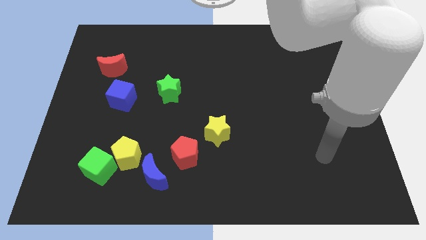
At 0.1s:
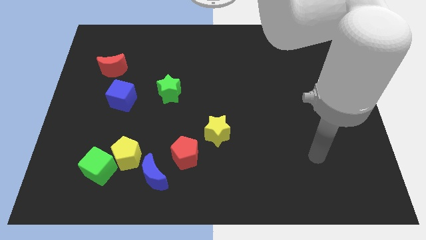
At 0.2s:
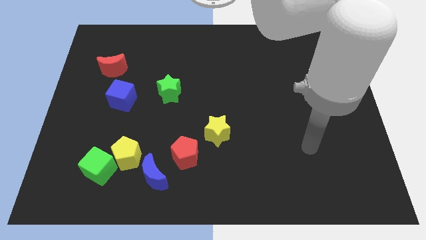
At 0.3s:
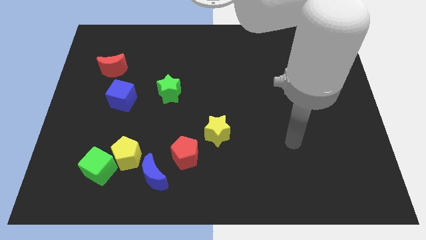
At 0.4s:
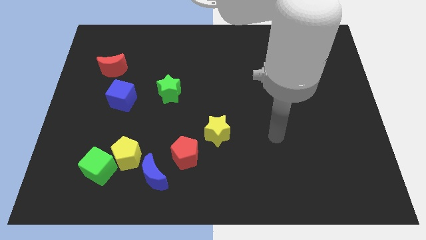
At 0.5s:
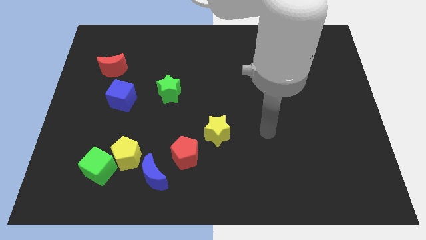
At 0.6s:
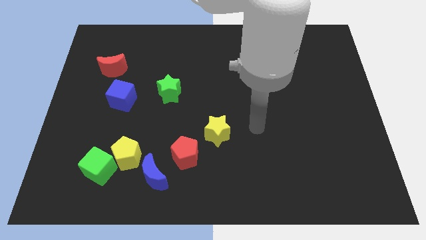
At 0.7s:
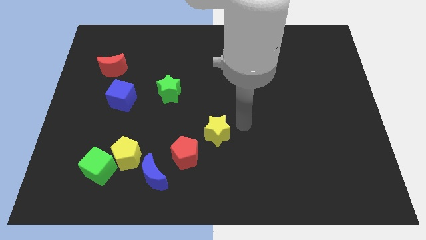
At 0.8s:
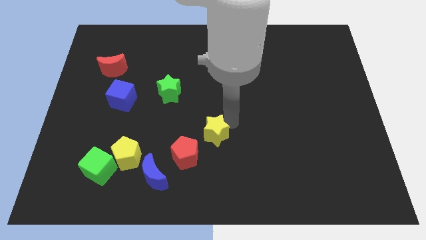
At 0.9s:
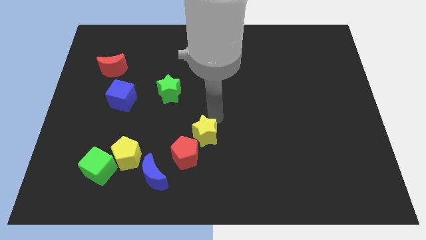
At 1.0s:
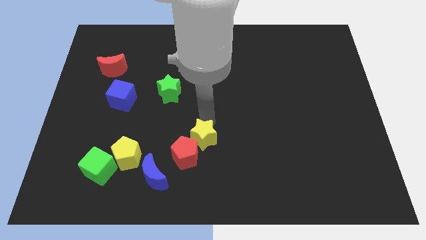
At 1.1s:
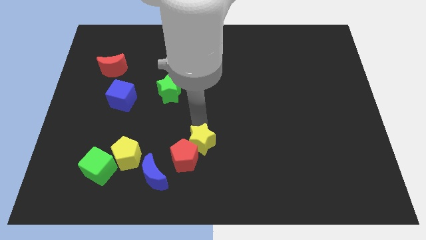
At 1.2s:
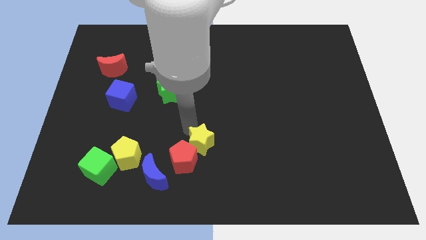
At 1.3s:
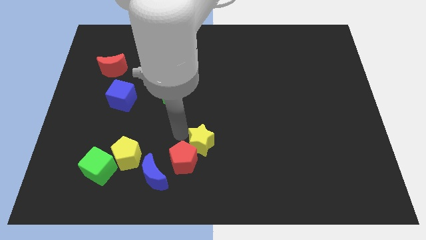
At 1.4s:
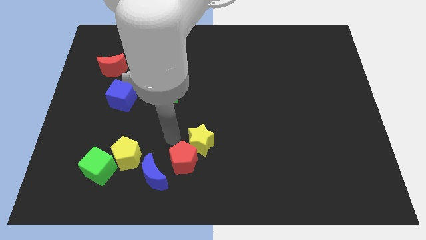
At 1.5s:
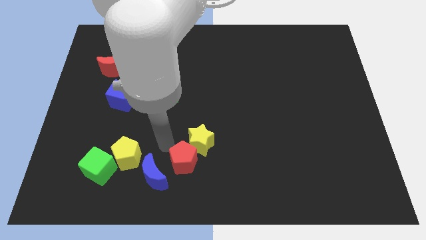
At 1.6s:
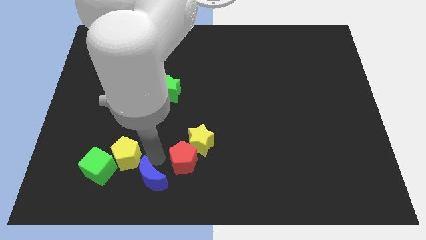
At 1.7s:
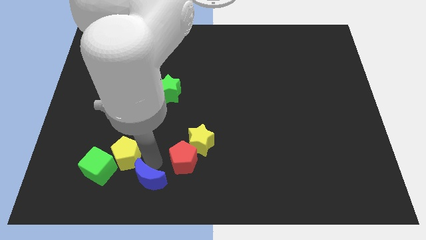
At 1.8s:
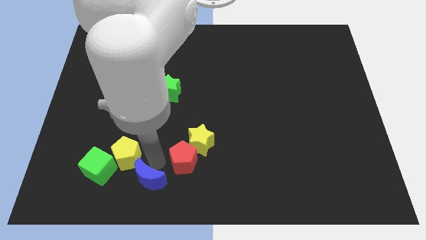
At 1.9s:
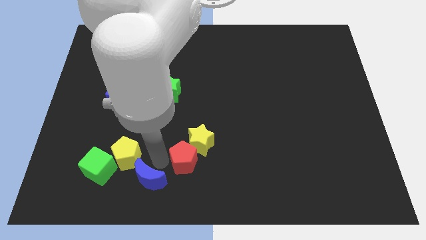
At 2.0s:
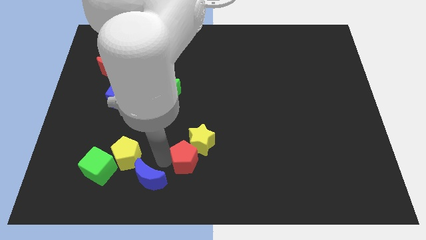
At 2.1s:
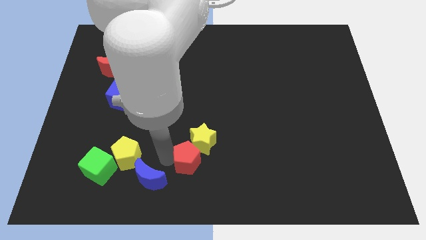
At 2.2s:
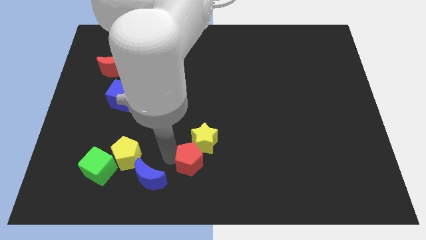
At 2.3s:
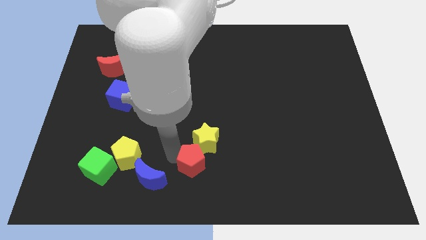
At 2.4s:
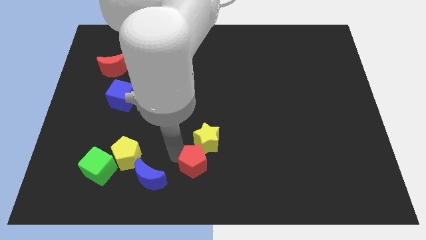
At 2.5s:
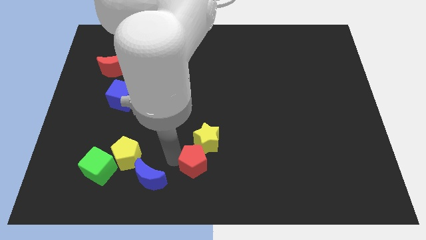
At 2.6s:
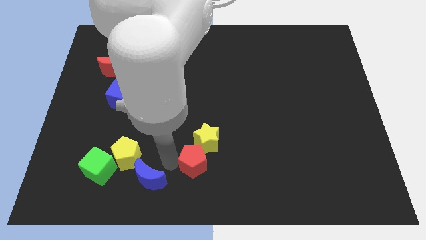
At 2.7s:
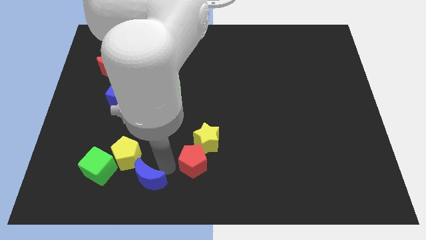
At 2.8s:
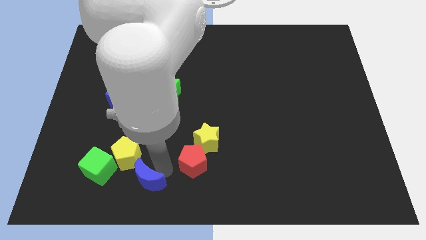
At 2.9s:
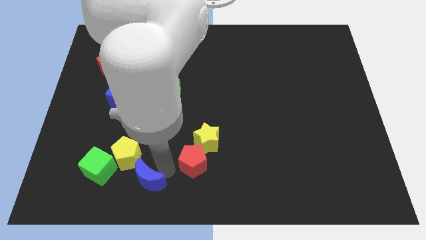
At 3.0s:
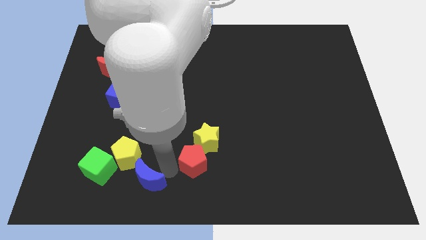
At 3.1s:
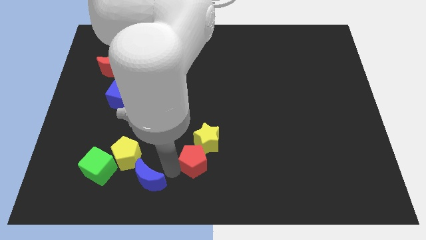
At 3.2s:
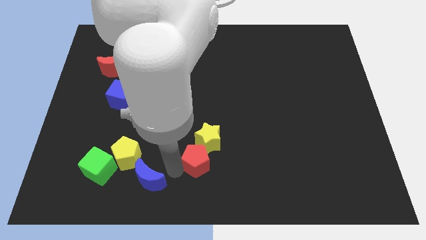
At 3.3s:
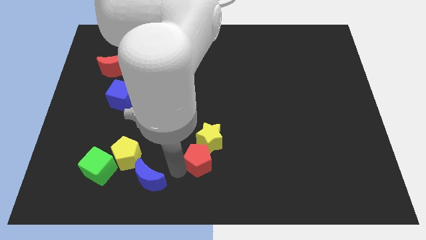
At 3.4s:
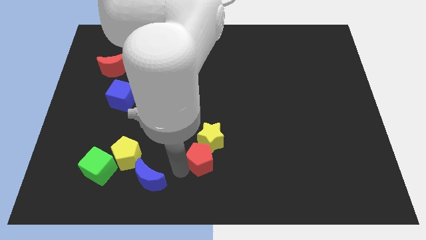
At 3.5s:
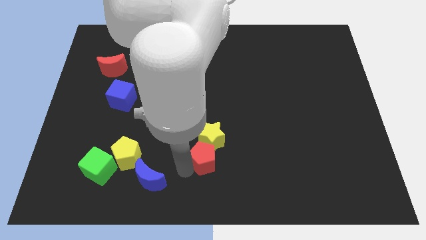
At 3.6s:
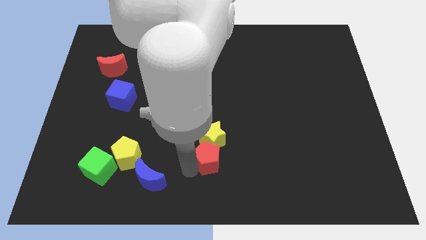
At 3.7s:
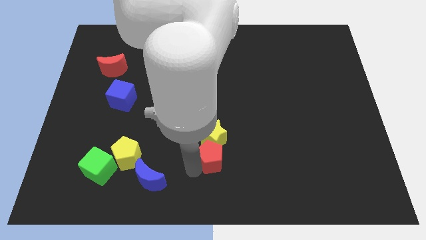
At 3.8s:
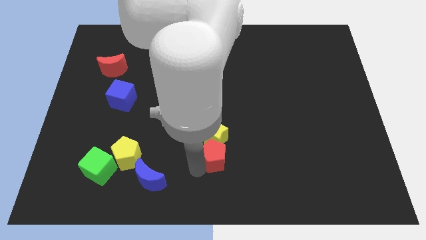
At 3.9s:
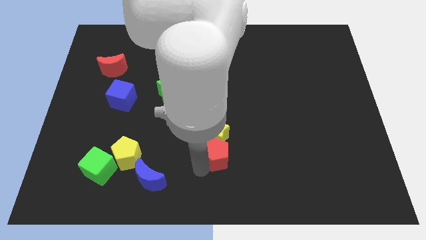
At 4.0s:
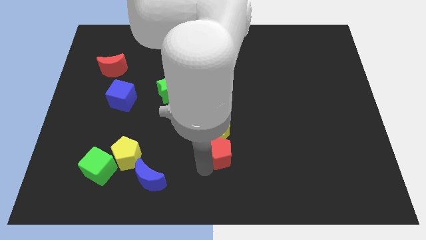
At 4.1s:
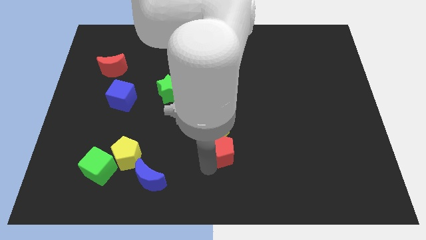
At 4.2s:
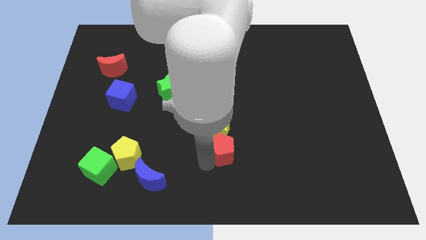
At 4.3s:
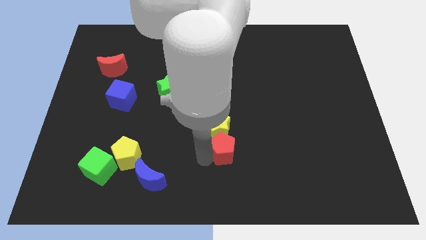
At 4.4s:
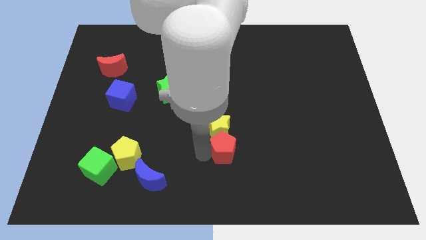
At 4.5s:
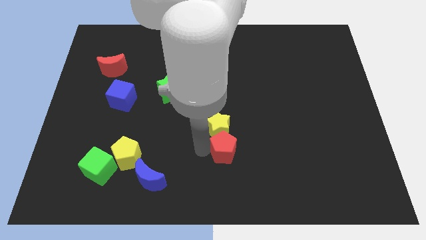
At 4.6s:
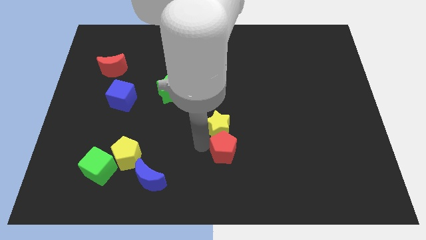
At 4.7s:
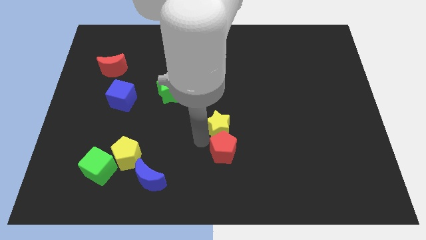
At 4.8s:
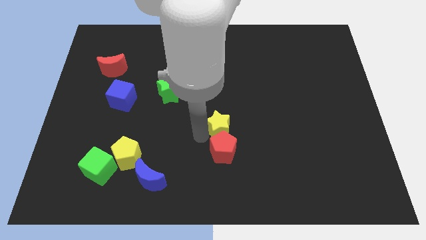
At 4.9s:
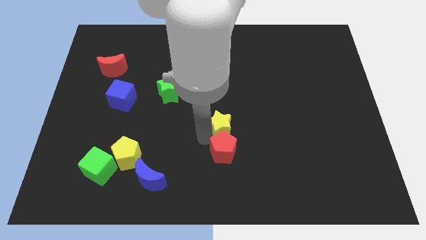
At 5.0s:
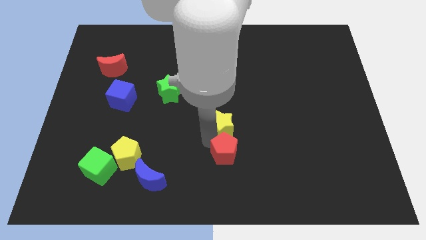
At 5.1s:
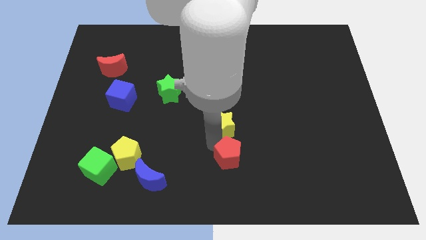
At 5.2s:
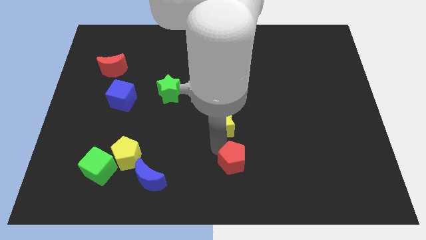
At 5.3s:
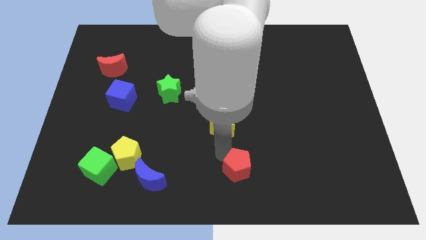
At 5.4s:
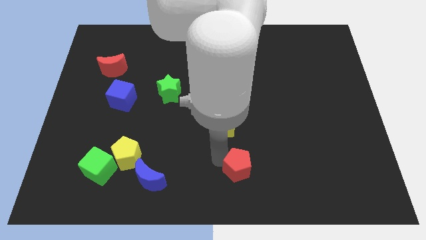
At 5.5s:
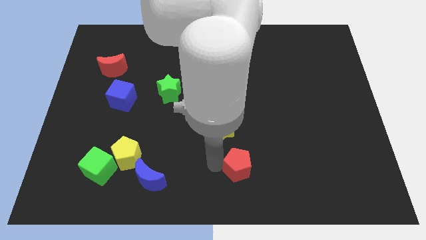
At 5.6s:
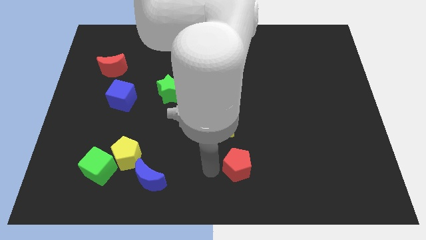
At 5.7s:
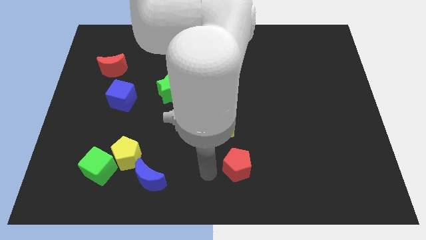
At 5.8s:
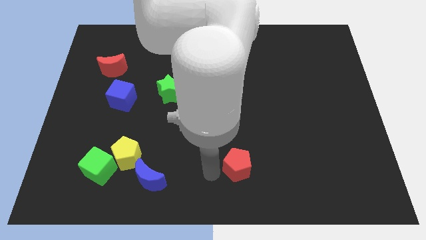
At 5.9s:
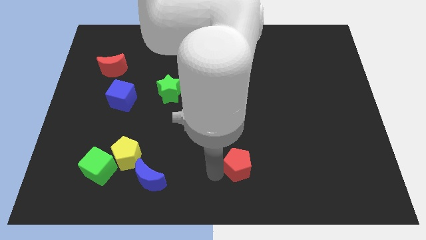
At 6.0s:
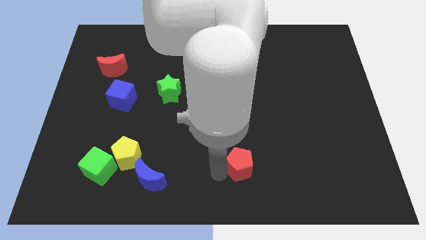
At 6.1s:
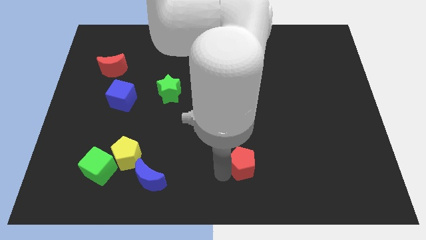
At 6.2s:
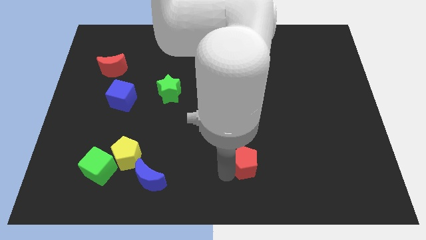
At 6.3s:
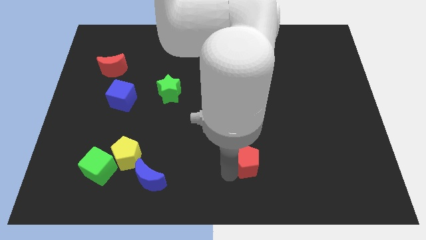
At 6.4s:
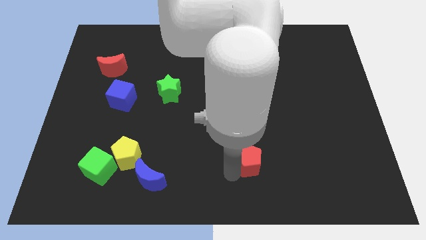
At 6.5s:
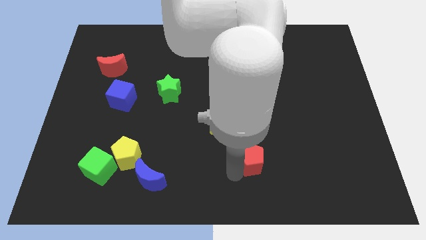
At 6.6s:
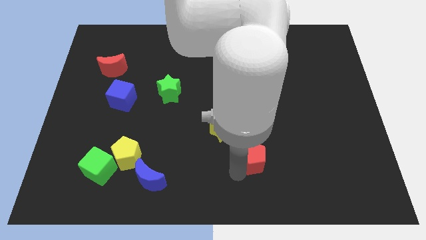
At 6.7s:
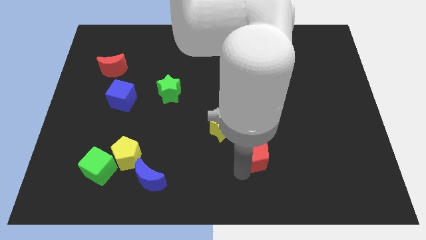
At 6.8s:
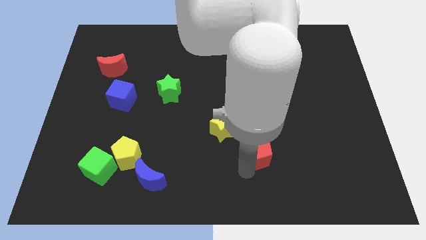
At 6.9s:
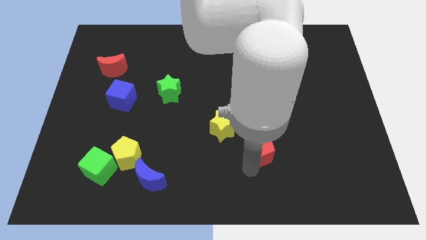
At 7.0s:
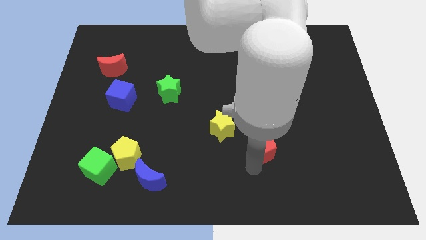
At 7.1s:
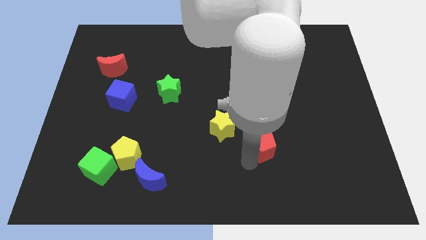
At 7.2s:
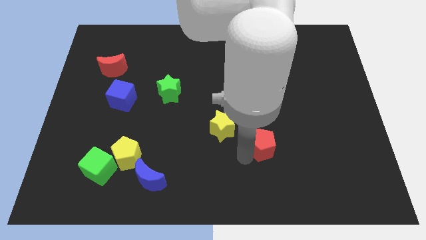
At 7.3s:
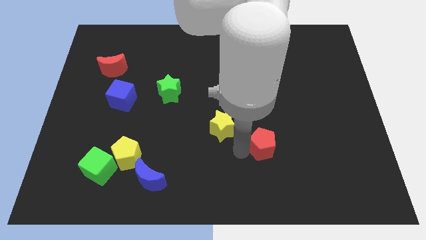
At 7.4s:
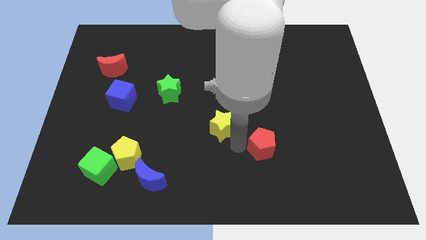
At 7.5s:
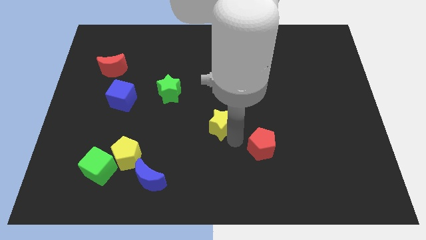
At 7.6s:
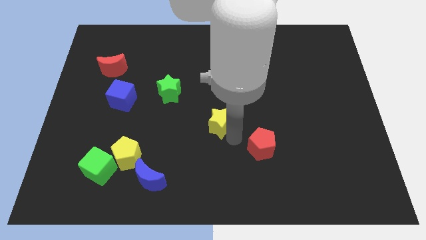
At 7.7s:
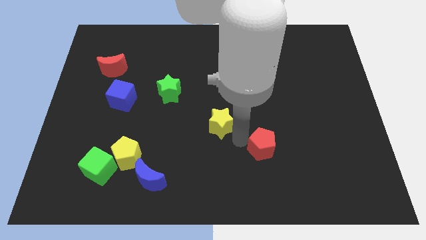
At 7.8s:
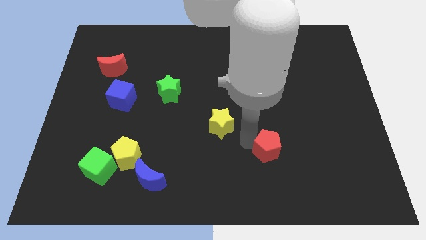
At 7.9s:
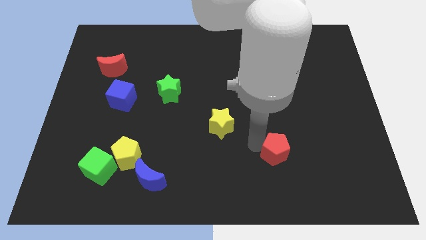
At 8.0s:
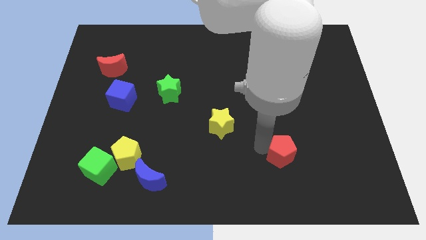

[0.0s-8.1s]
push the red pentagon right
